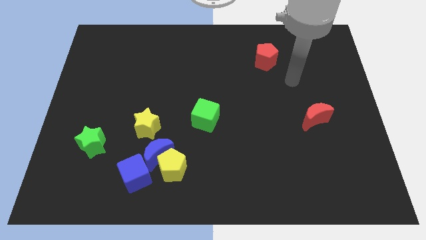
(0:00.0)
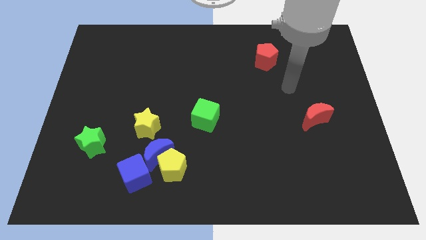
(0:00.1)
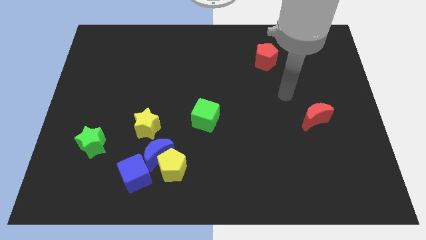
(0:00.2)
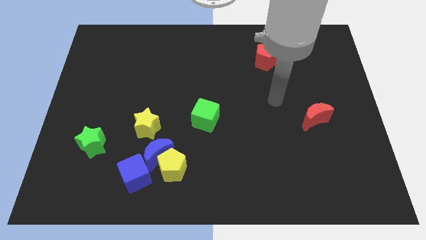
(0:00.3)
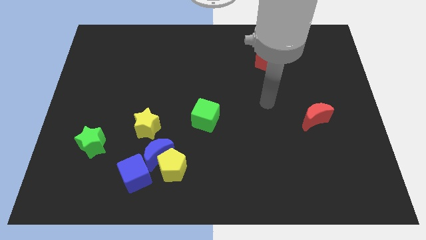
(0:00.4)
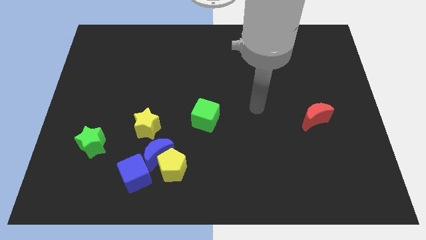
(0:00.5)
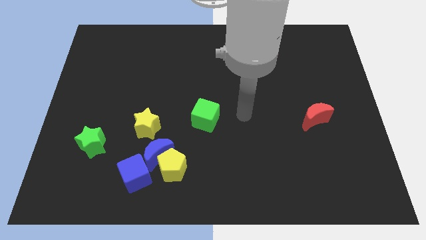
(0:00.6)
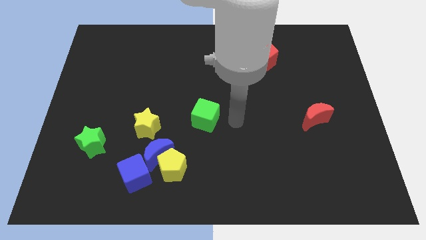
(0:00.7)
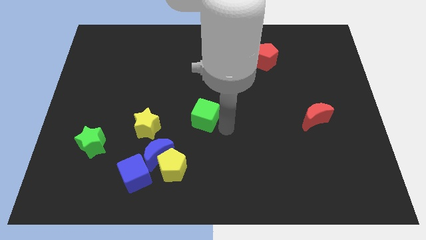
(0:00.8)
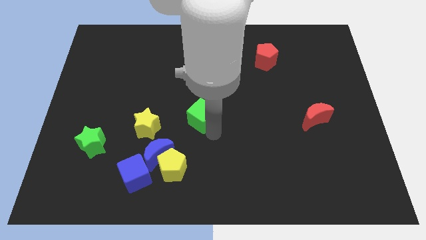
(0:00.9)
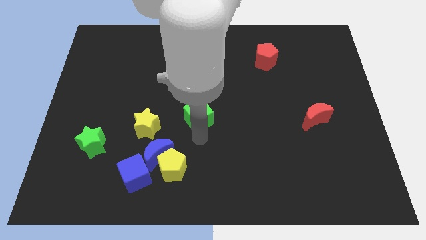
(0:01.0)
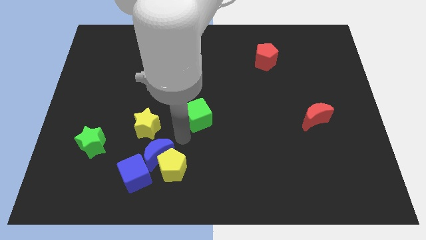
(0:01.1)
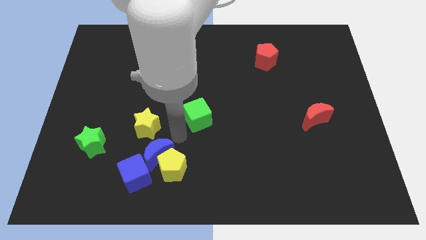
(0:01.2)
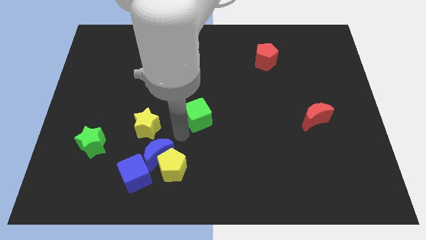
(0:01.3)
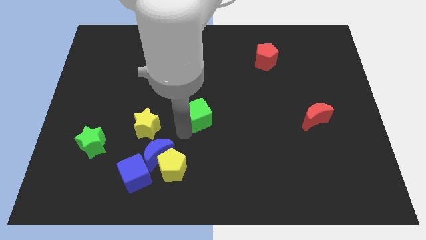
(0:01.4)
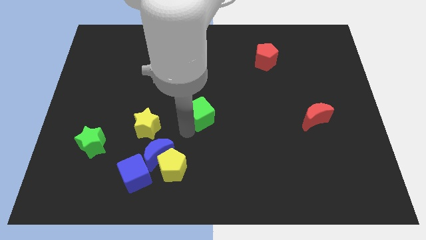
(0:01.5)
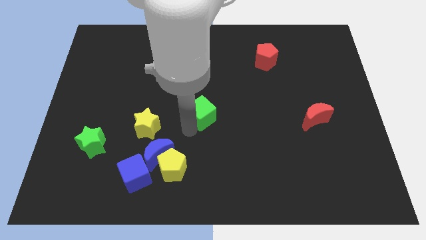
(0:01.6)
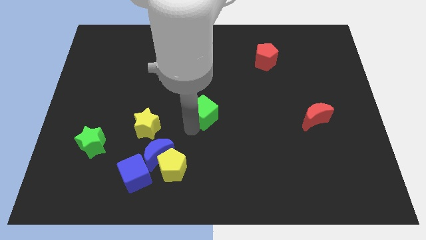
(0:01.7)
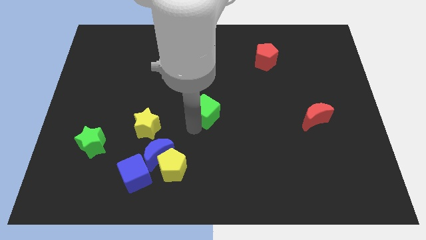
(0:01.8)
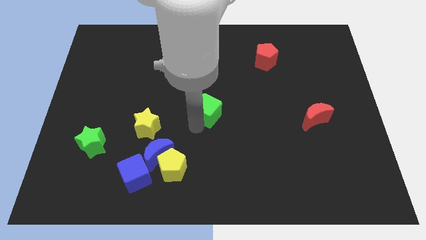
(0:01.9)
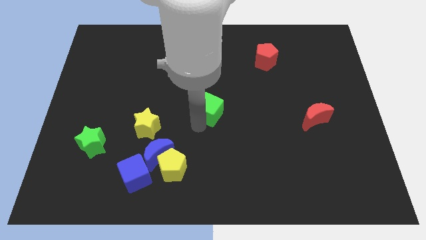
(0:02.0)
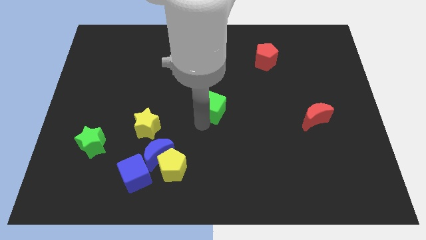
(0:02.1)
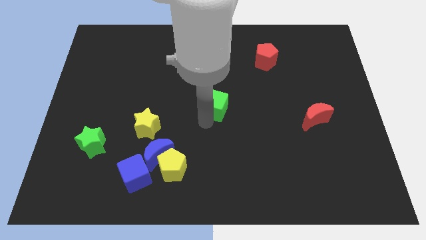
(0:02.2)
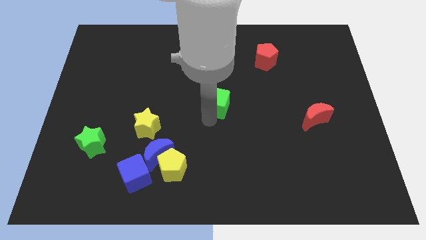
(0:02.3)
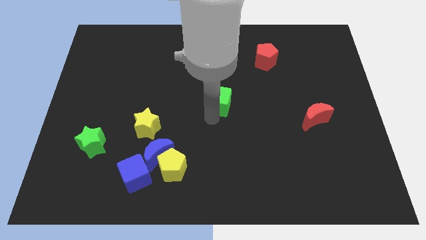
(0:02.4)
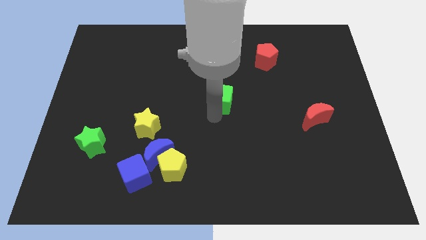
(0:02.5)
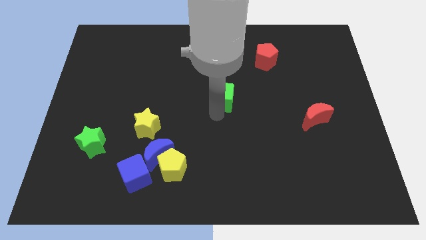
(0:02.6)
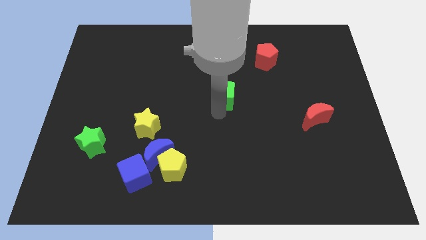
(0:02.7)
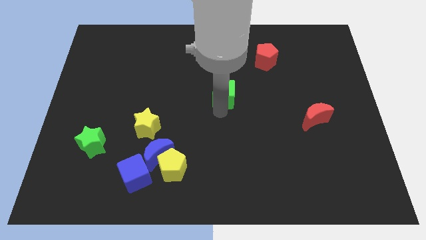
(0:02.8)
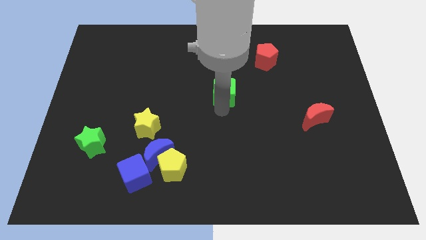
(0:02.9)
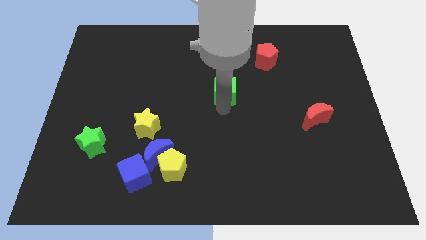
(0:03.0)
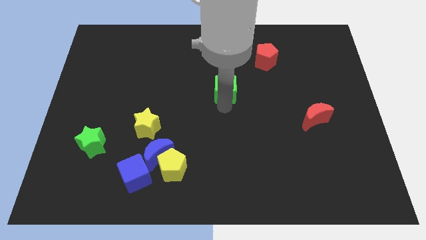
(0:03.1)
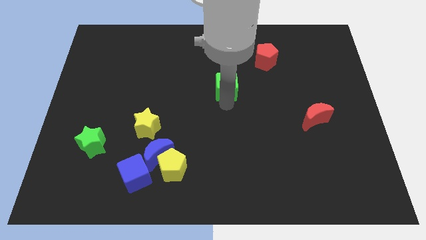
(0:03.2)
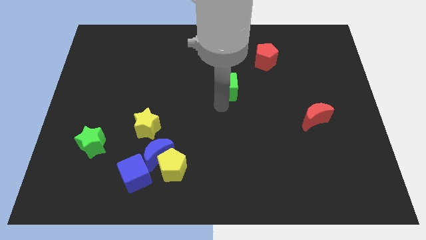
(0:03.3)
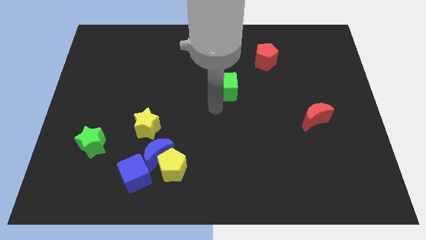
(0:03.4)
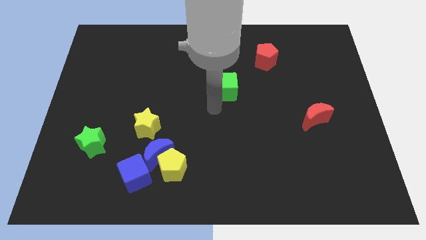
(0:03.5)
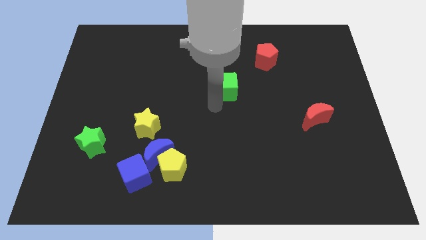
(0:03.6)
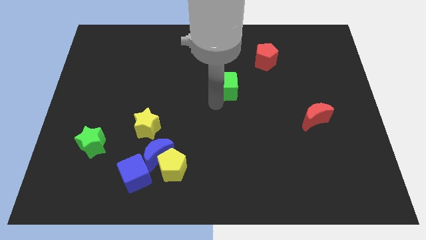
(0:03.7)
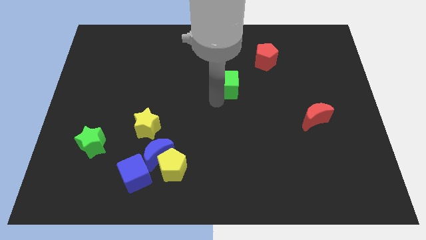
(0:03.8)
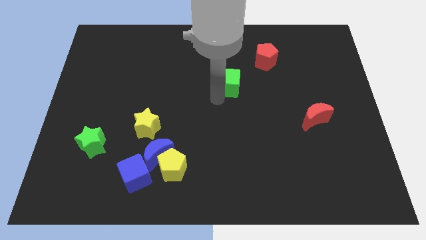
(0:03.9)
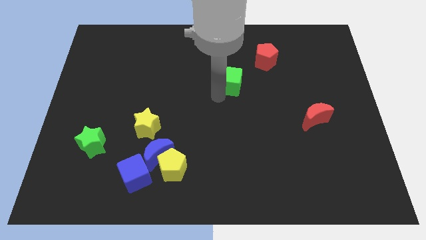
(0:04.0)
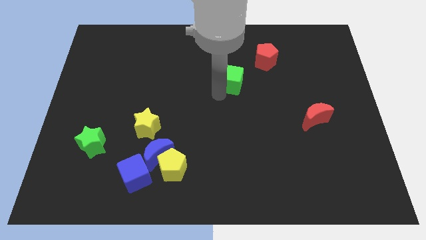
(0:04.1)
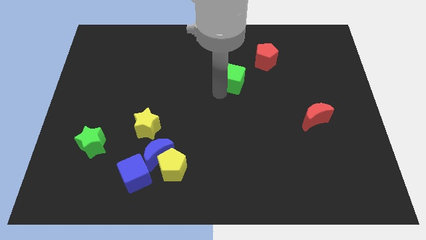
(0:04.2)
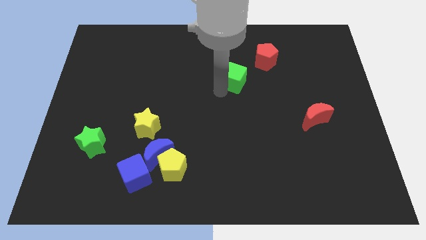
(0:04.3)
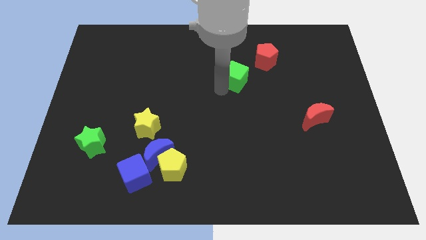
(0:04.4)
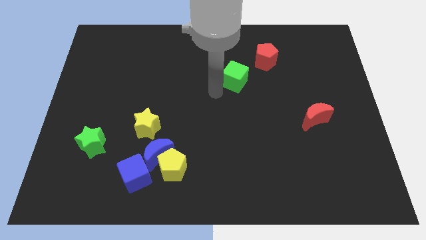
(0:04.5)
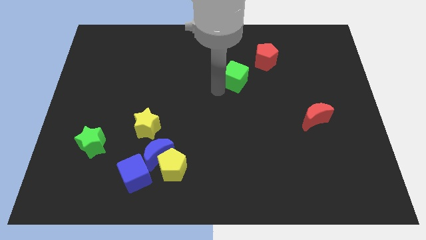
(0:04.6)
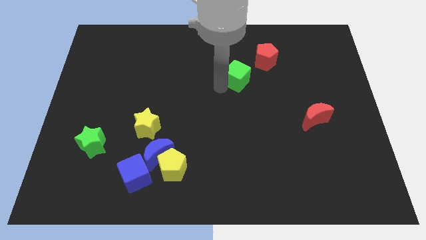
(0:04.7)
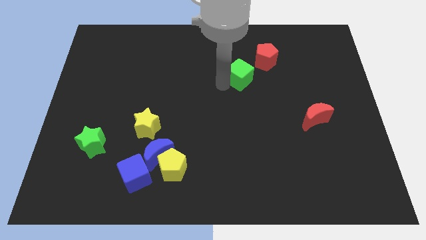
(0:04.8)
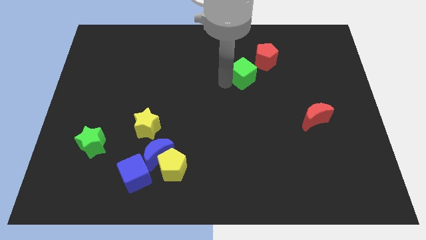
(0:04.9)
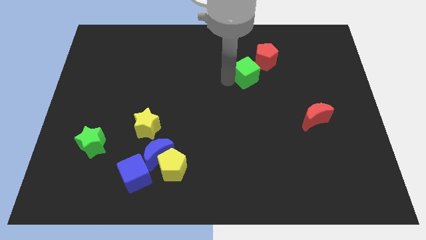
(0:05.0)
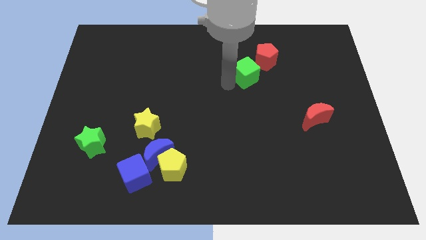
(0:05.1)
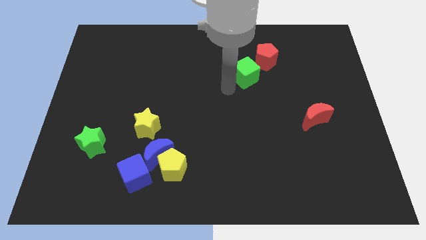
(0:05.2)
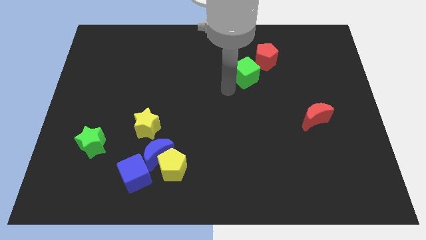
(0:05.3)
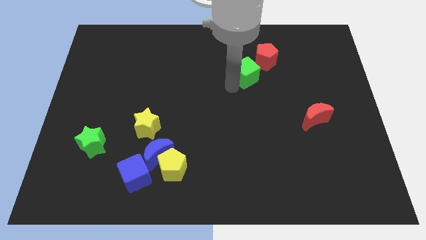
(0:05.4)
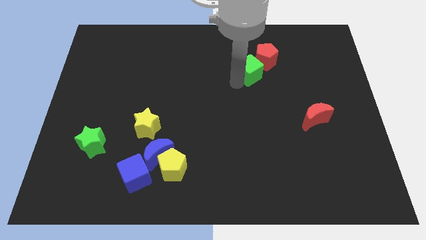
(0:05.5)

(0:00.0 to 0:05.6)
push the green cube close to the red pentagon

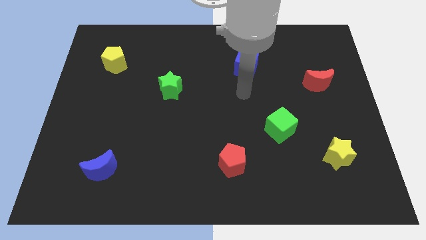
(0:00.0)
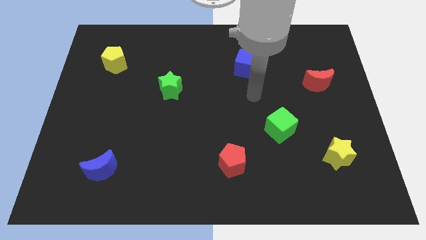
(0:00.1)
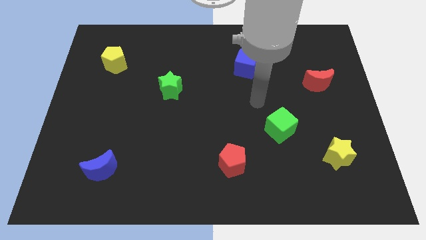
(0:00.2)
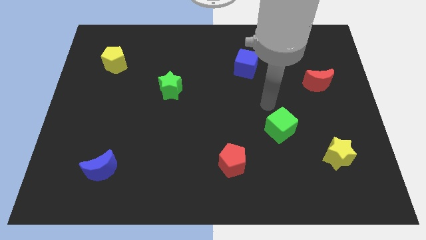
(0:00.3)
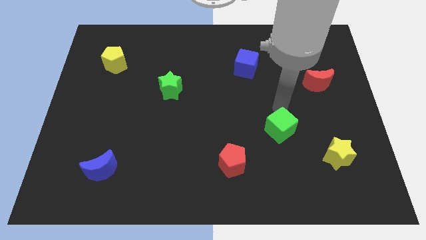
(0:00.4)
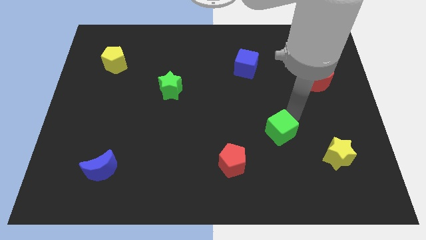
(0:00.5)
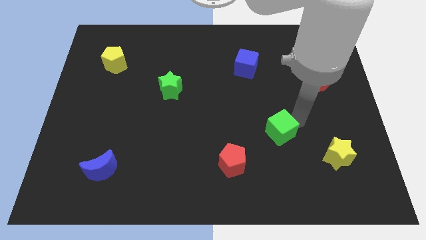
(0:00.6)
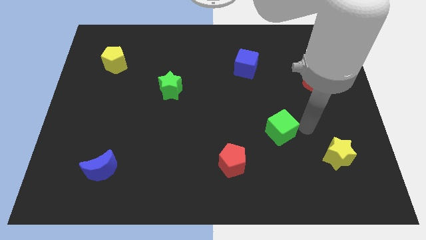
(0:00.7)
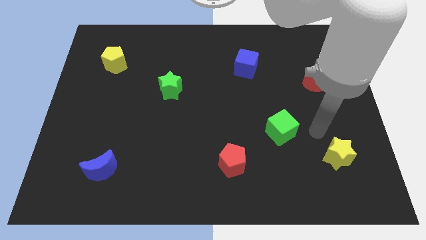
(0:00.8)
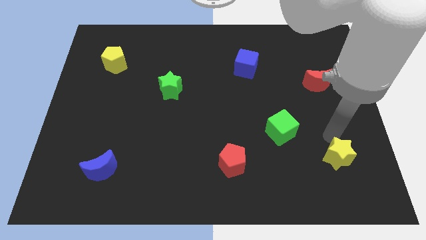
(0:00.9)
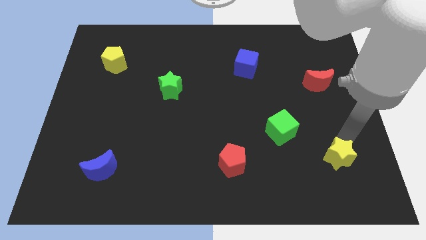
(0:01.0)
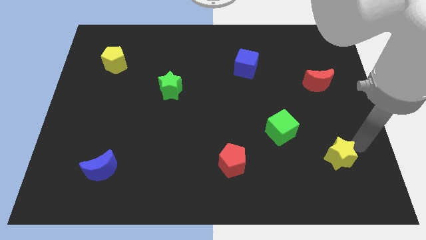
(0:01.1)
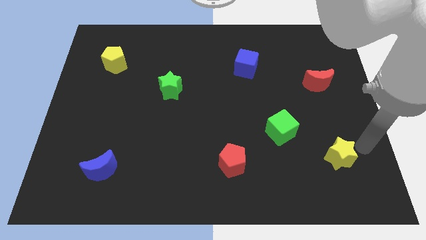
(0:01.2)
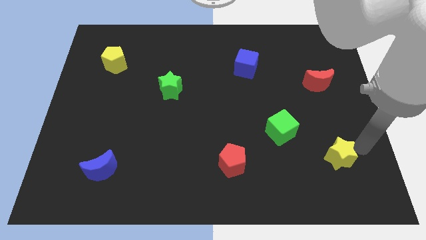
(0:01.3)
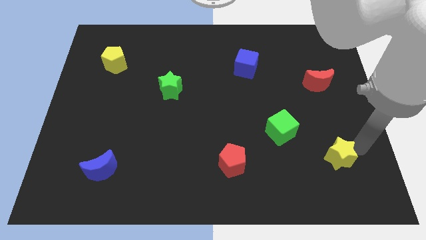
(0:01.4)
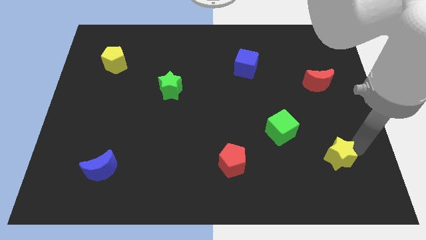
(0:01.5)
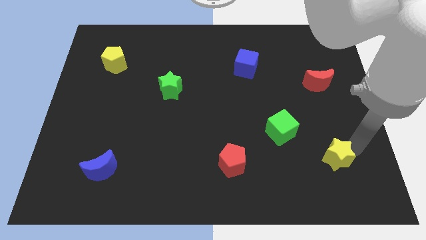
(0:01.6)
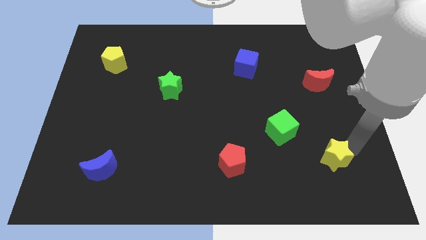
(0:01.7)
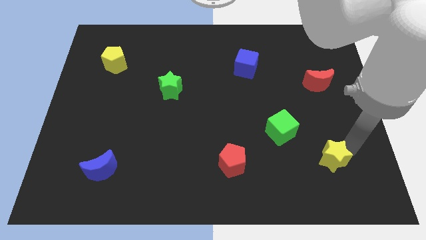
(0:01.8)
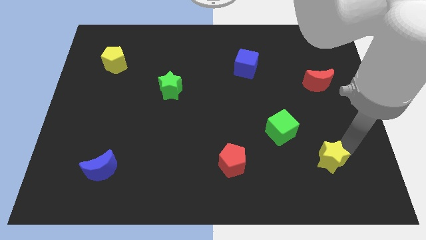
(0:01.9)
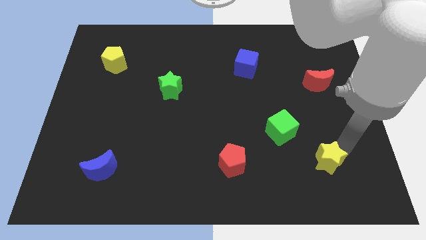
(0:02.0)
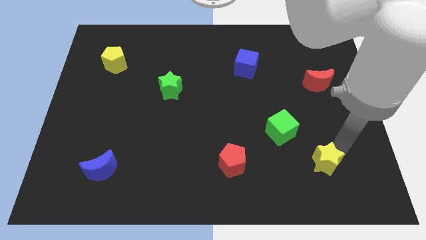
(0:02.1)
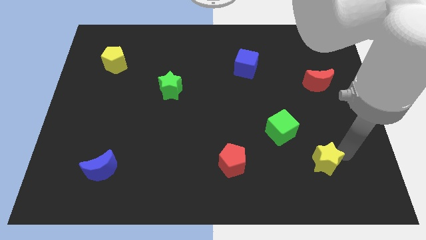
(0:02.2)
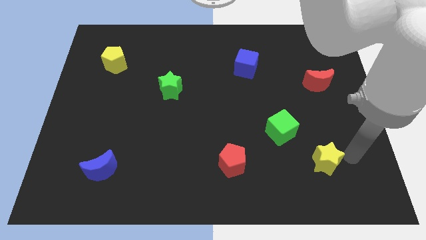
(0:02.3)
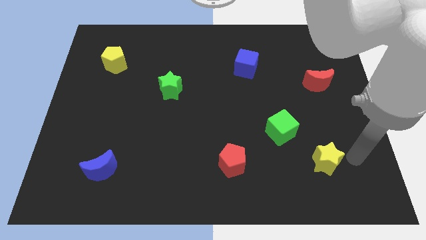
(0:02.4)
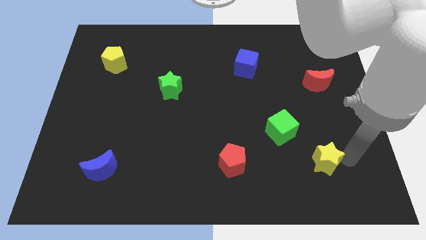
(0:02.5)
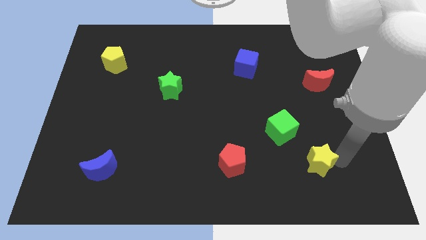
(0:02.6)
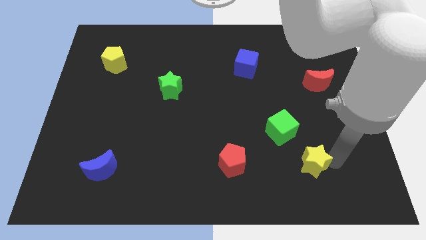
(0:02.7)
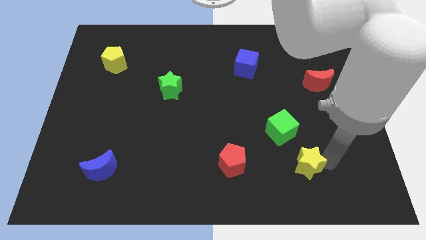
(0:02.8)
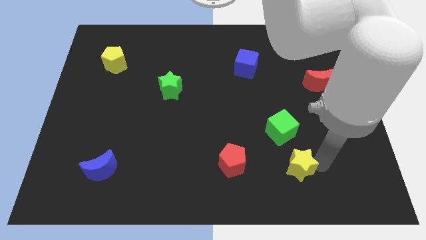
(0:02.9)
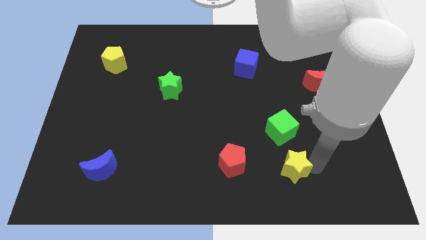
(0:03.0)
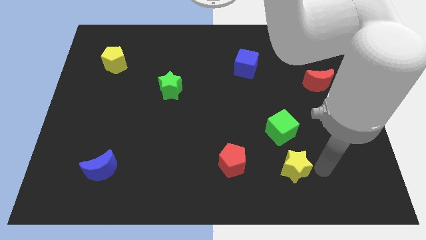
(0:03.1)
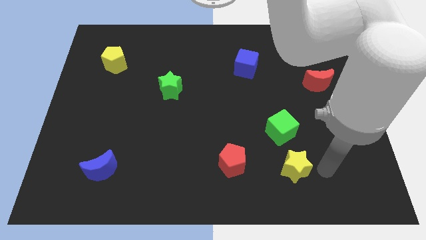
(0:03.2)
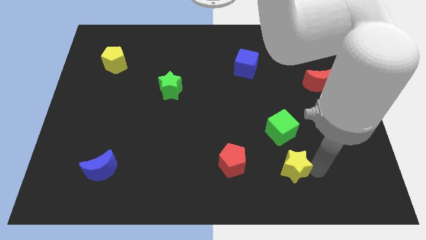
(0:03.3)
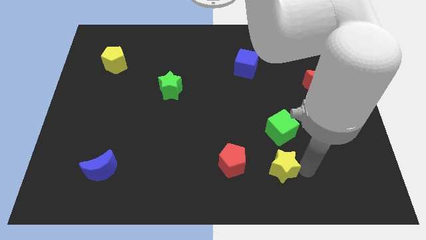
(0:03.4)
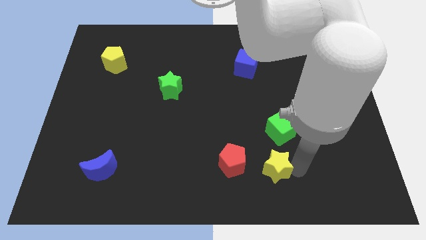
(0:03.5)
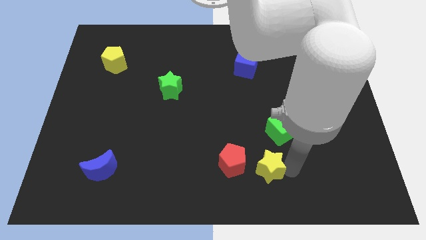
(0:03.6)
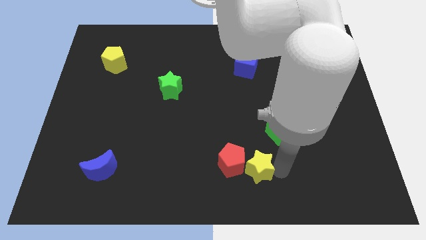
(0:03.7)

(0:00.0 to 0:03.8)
push the yellow star towards the red pentagon
